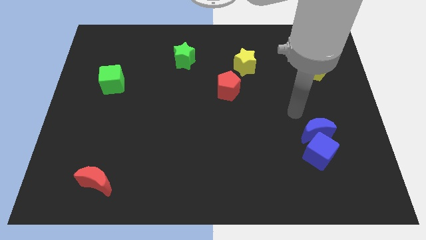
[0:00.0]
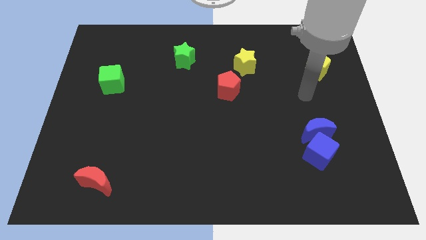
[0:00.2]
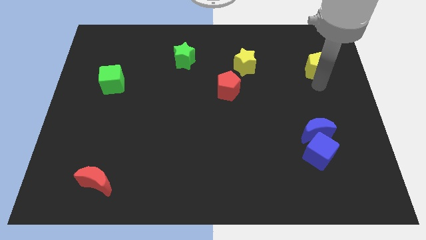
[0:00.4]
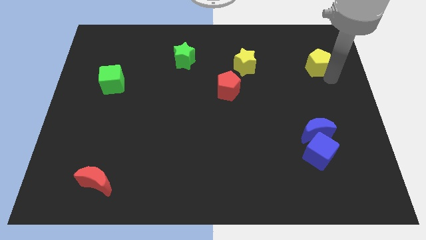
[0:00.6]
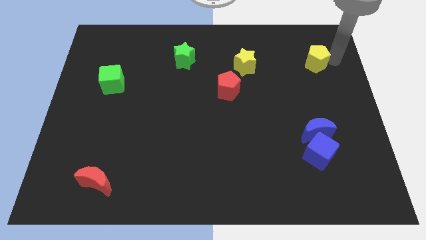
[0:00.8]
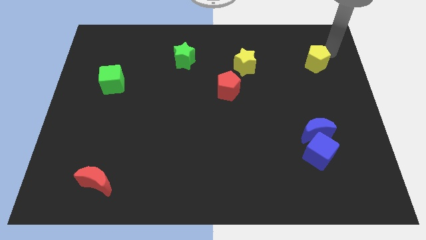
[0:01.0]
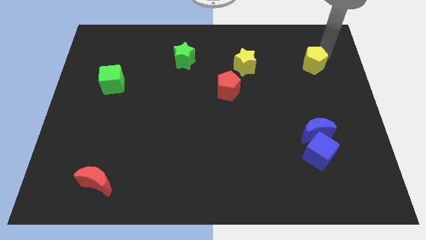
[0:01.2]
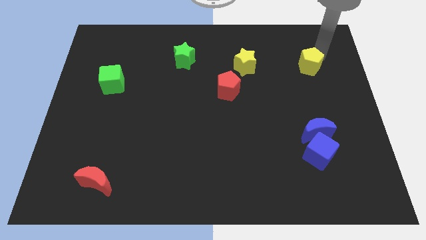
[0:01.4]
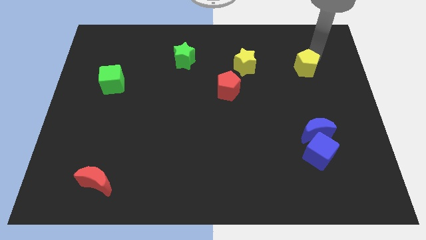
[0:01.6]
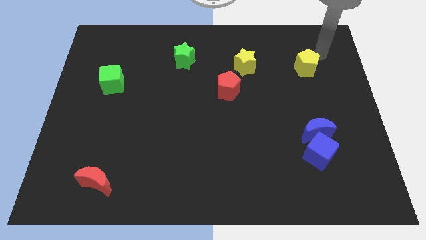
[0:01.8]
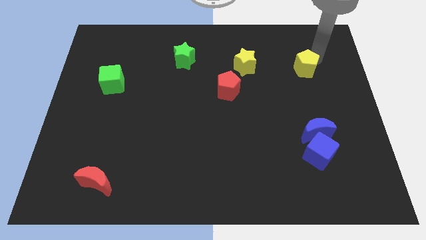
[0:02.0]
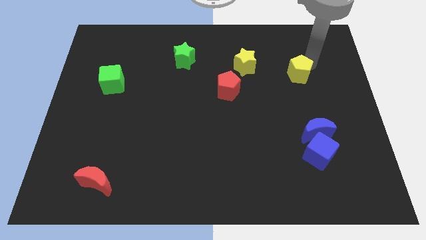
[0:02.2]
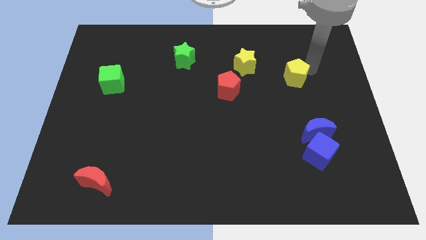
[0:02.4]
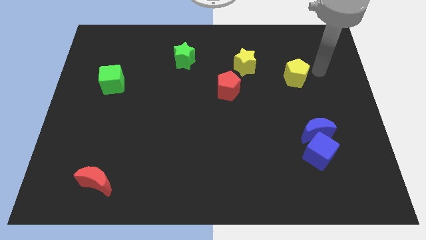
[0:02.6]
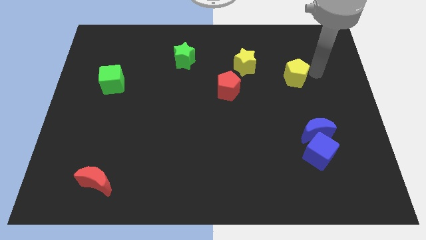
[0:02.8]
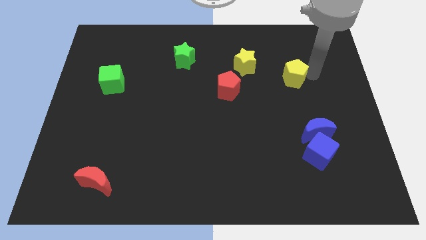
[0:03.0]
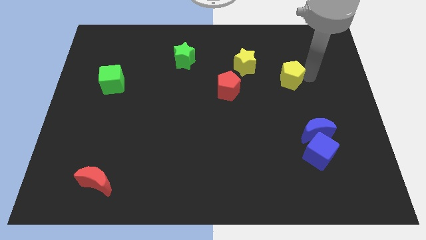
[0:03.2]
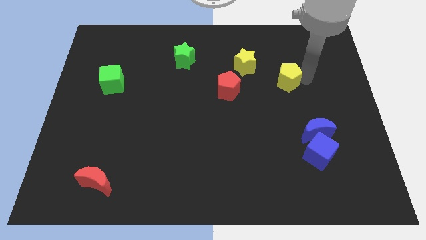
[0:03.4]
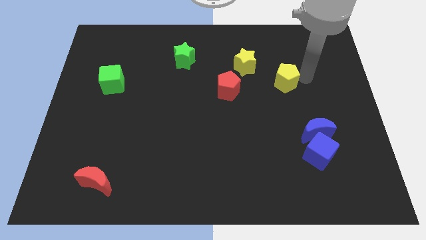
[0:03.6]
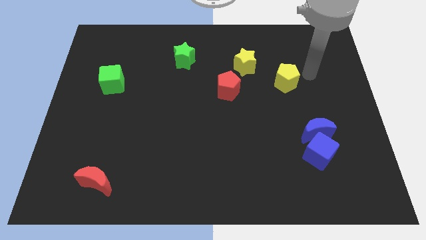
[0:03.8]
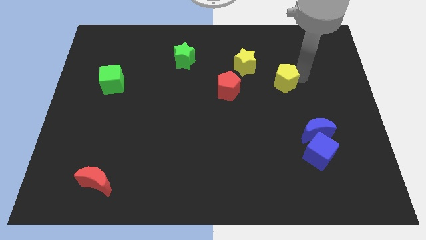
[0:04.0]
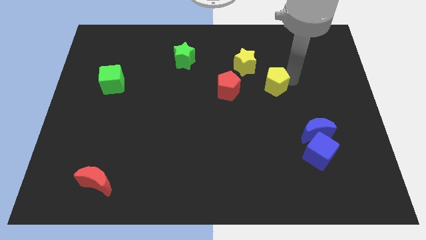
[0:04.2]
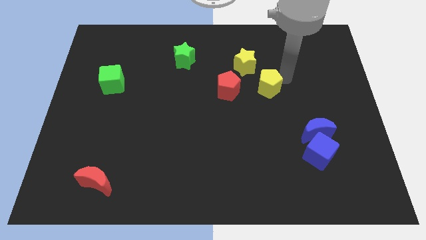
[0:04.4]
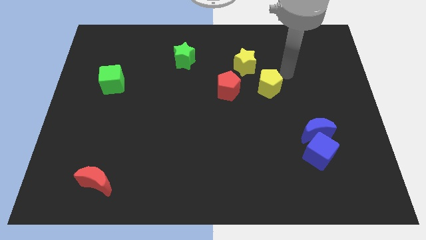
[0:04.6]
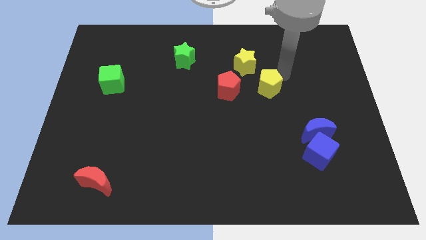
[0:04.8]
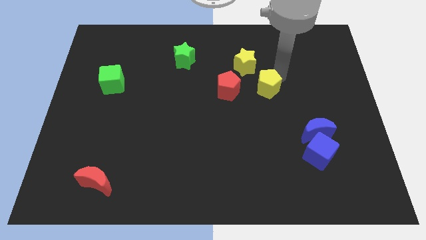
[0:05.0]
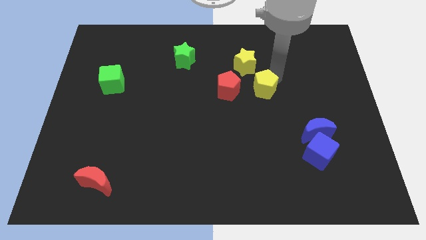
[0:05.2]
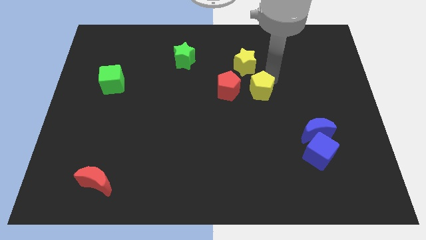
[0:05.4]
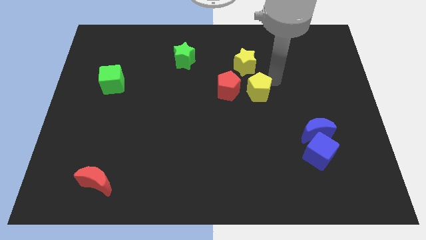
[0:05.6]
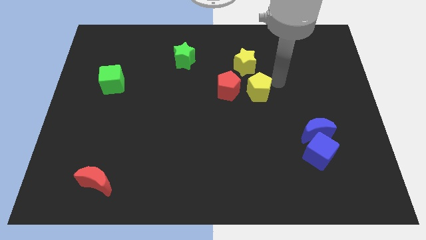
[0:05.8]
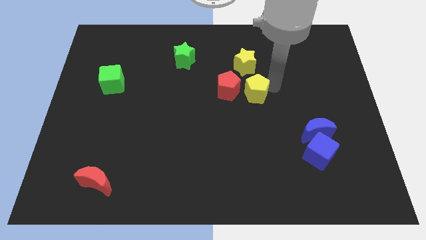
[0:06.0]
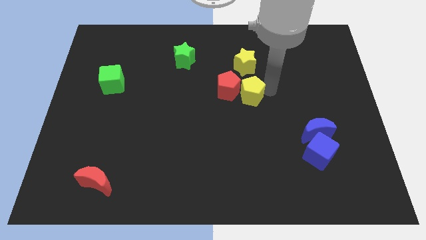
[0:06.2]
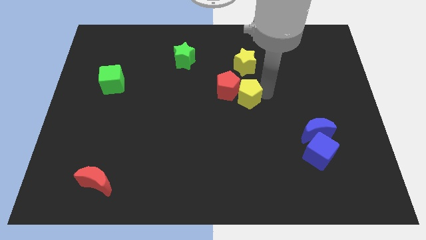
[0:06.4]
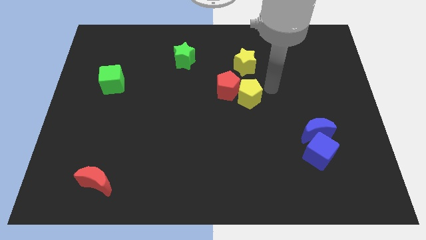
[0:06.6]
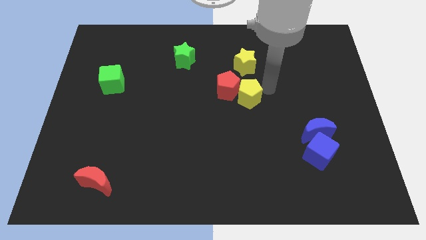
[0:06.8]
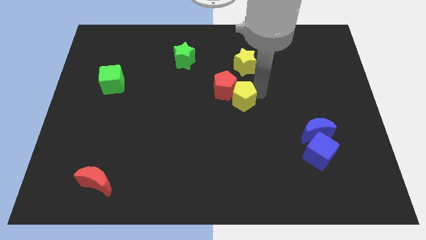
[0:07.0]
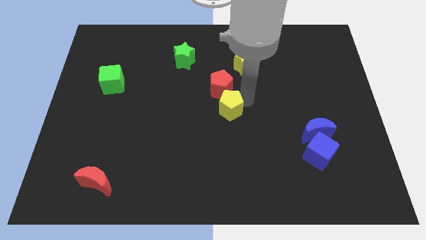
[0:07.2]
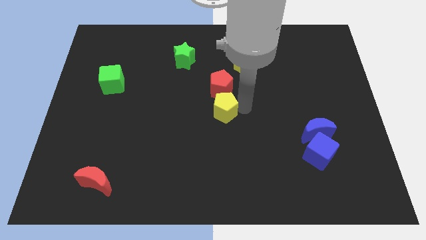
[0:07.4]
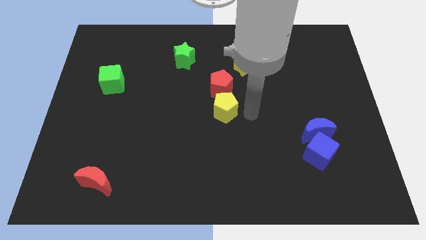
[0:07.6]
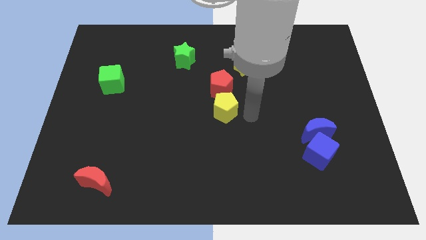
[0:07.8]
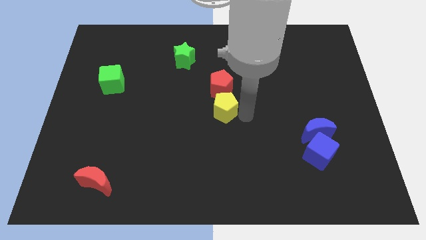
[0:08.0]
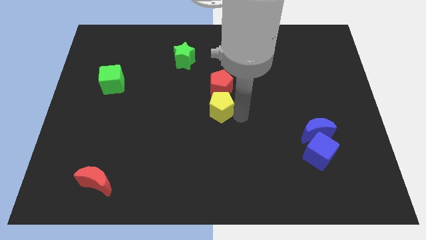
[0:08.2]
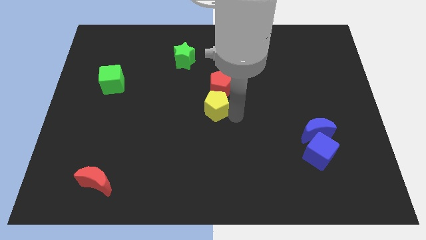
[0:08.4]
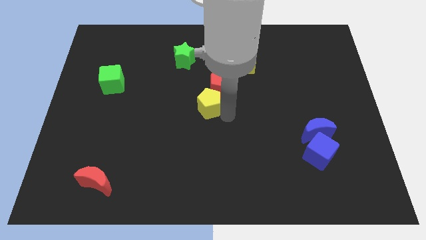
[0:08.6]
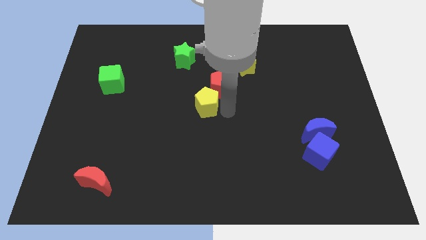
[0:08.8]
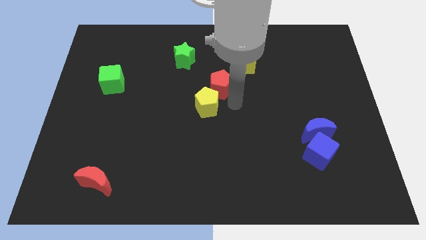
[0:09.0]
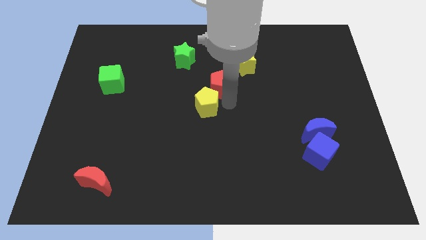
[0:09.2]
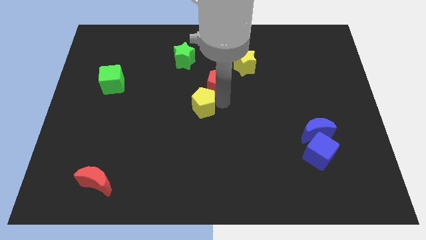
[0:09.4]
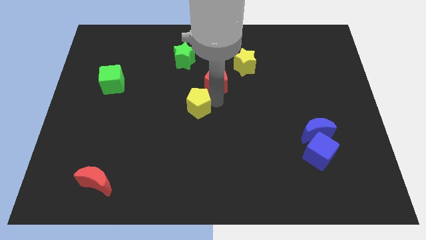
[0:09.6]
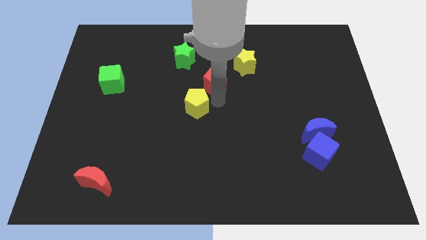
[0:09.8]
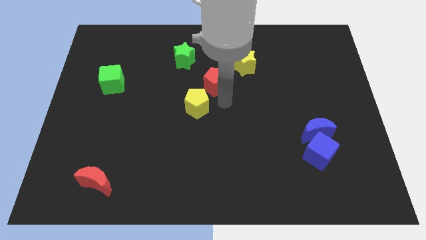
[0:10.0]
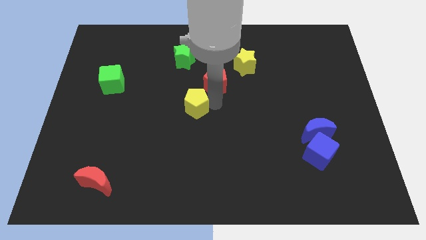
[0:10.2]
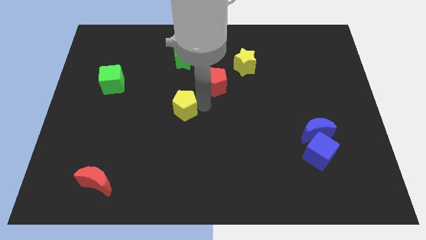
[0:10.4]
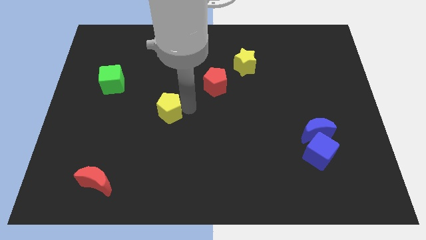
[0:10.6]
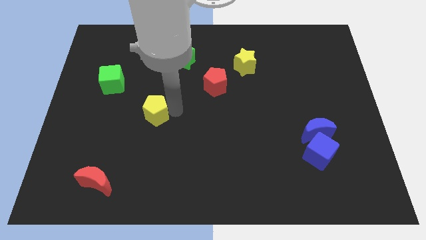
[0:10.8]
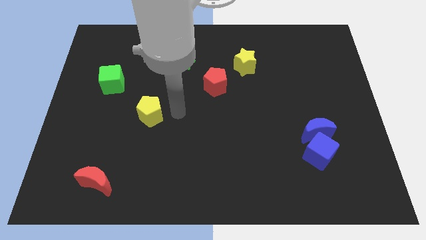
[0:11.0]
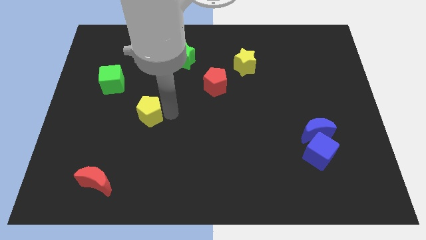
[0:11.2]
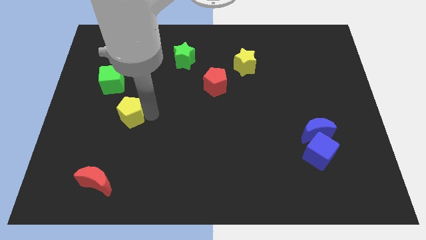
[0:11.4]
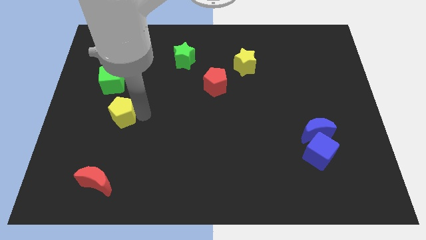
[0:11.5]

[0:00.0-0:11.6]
push the yellow pentagon to the bottom side of the green cube

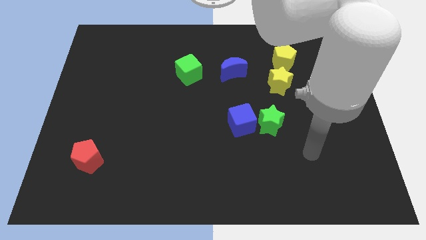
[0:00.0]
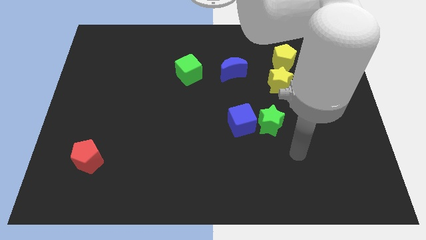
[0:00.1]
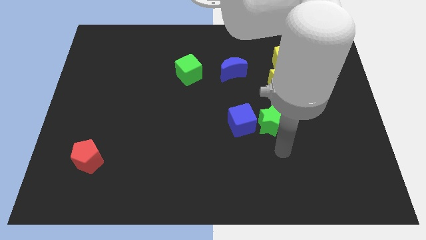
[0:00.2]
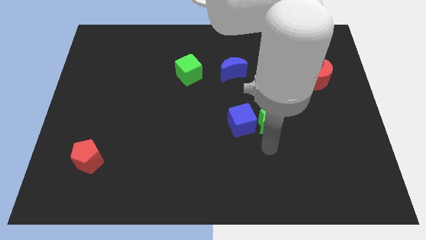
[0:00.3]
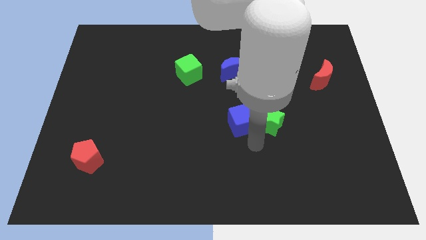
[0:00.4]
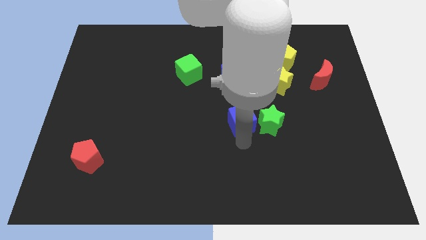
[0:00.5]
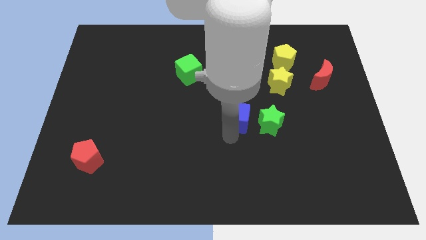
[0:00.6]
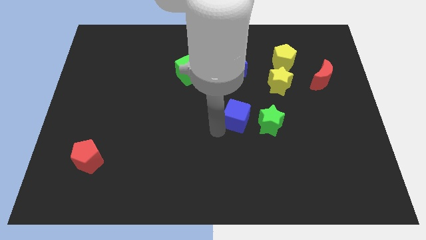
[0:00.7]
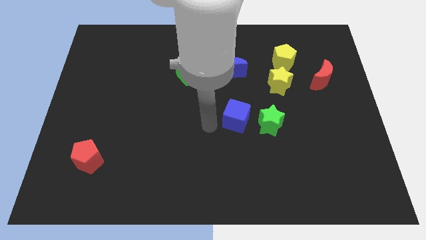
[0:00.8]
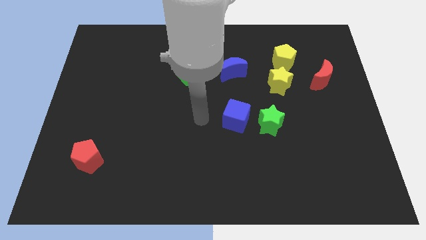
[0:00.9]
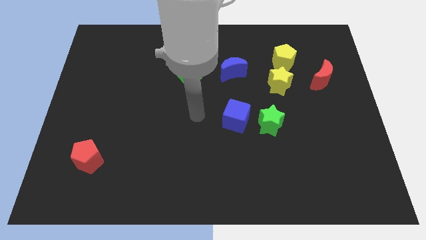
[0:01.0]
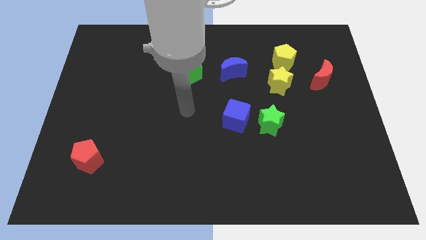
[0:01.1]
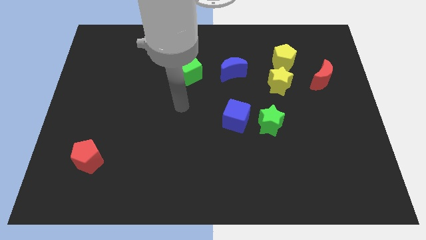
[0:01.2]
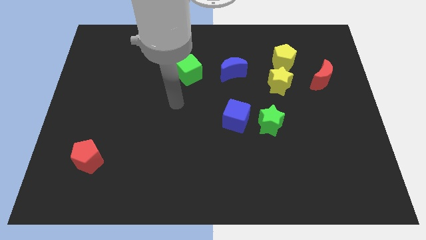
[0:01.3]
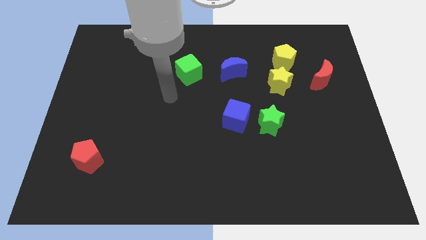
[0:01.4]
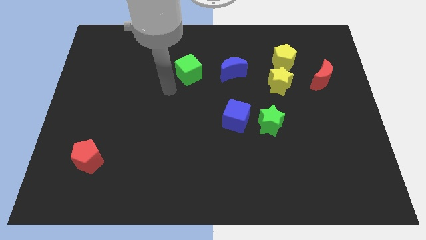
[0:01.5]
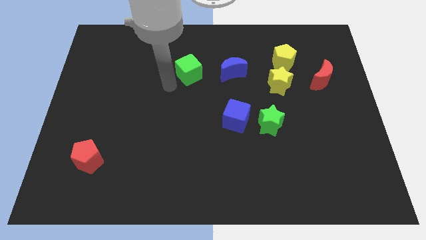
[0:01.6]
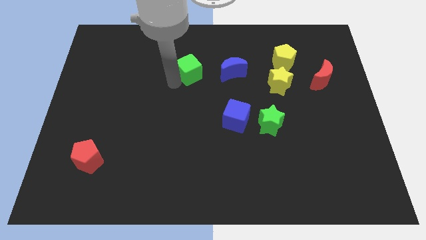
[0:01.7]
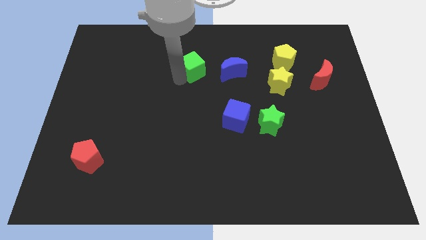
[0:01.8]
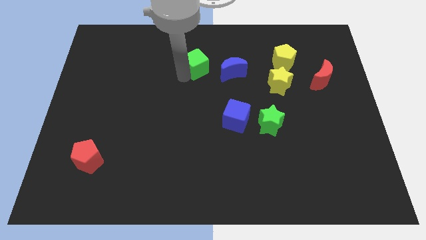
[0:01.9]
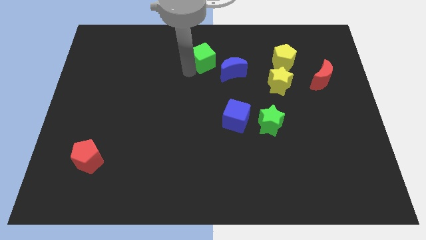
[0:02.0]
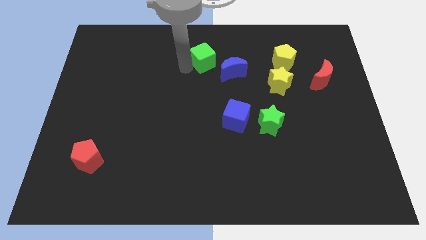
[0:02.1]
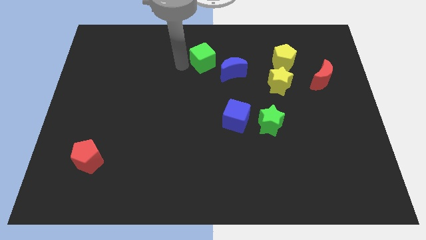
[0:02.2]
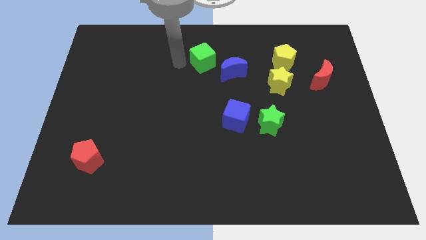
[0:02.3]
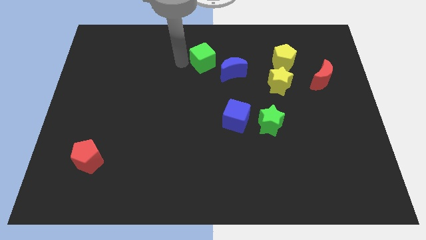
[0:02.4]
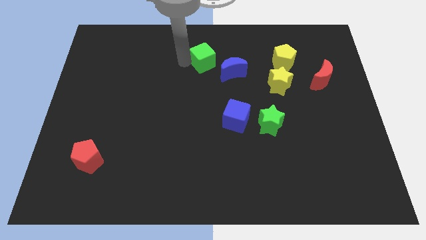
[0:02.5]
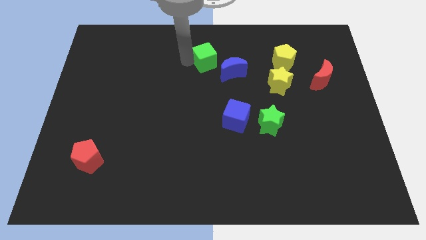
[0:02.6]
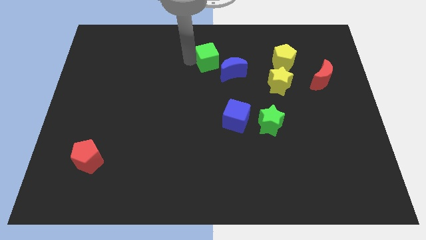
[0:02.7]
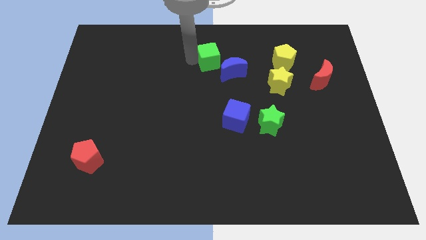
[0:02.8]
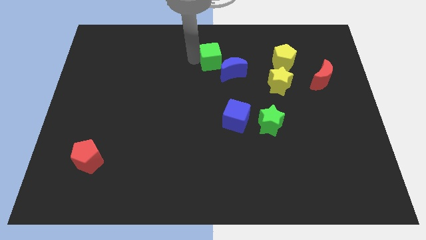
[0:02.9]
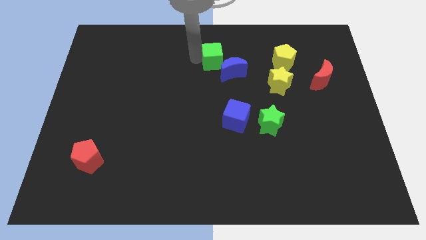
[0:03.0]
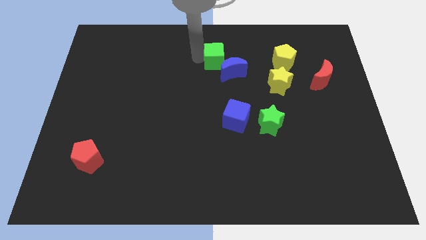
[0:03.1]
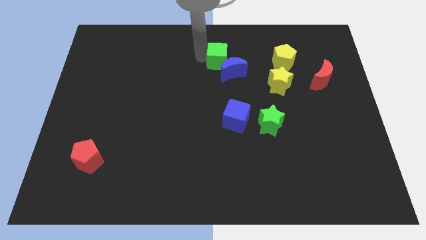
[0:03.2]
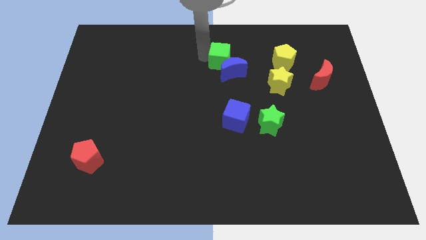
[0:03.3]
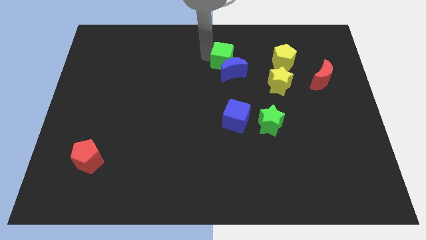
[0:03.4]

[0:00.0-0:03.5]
push the green cube to the left of the yellow pentagon
